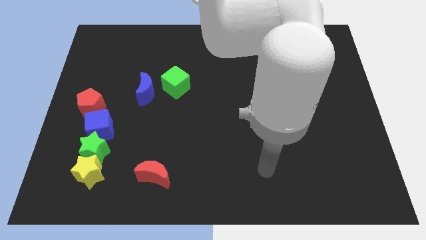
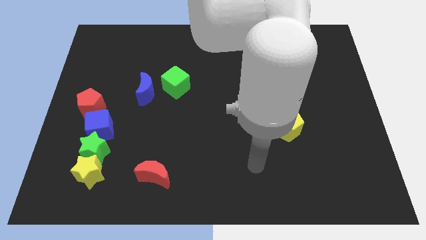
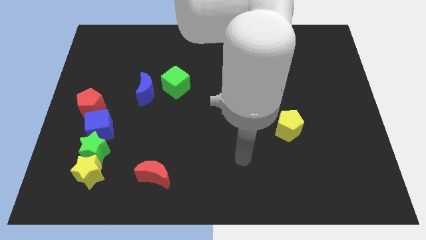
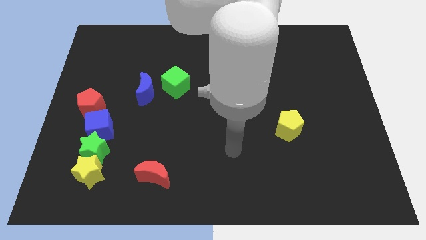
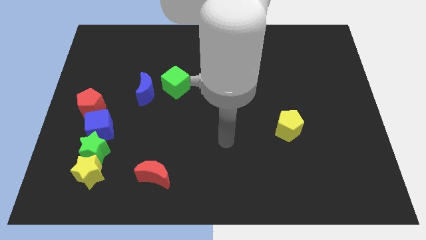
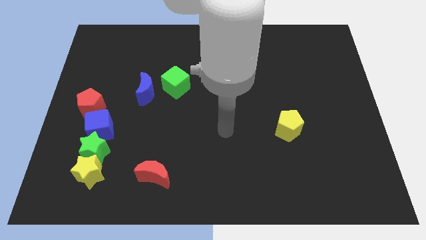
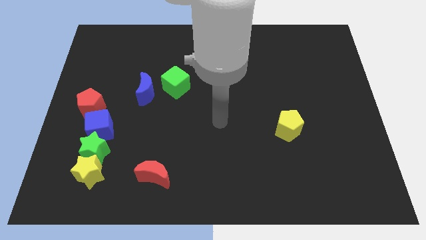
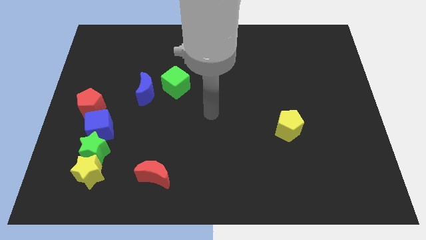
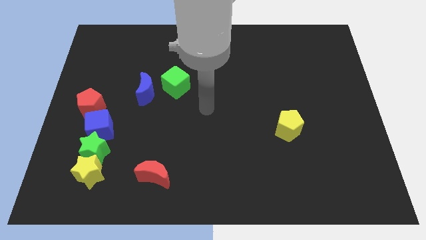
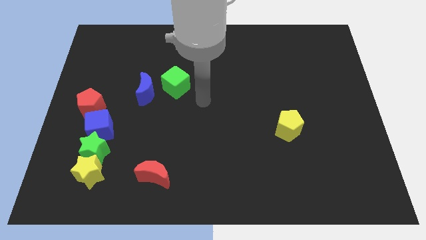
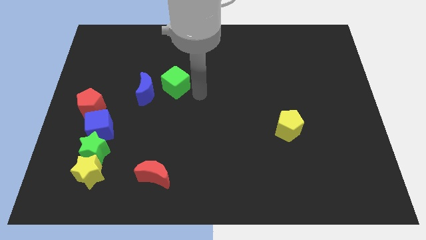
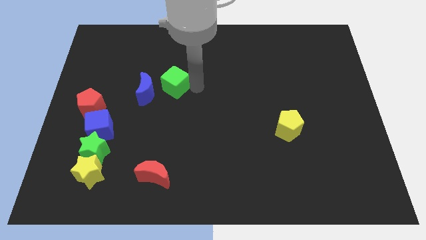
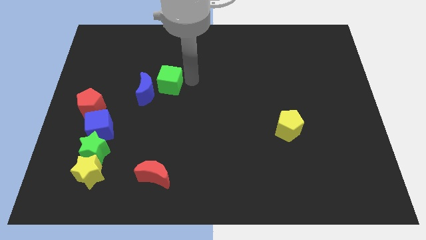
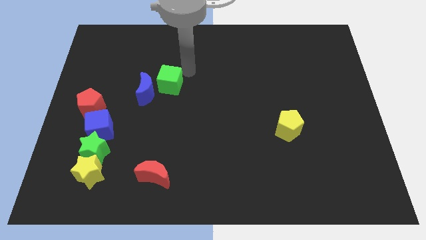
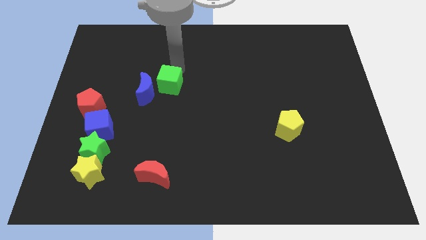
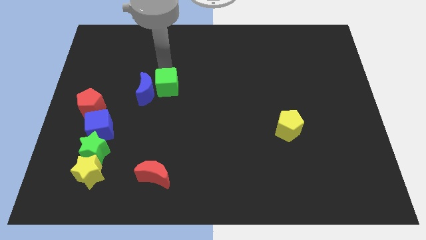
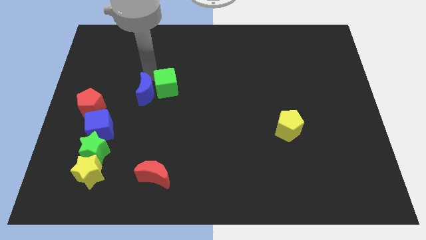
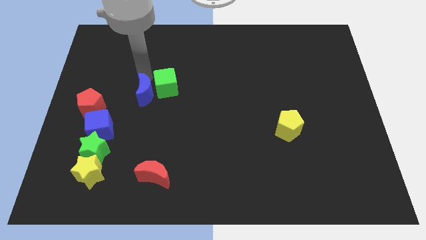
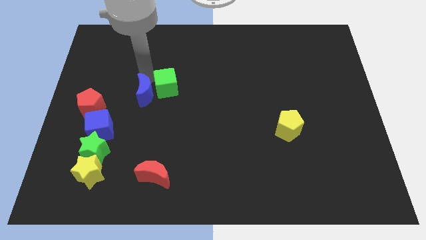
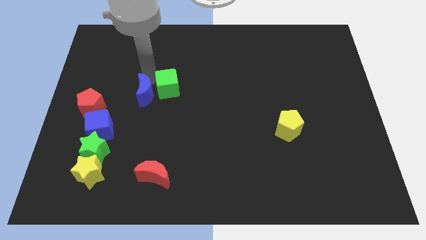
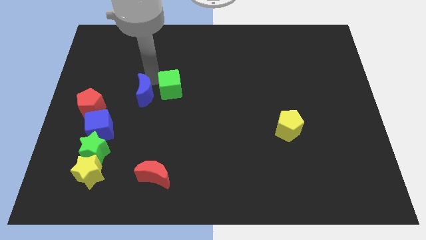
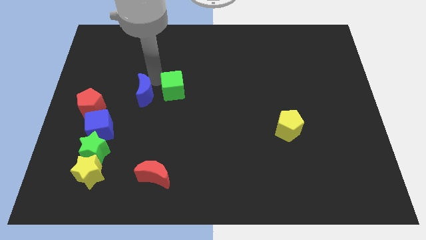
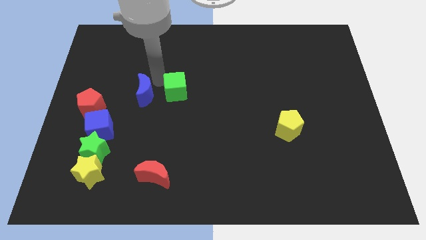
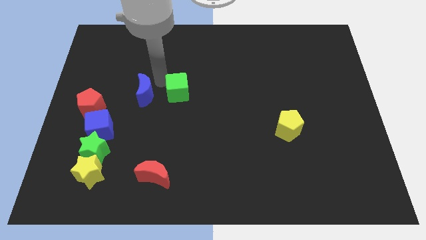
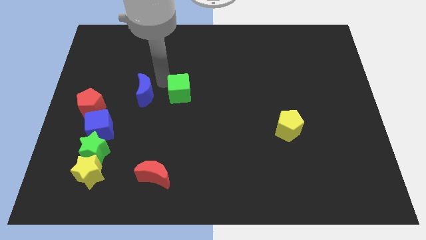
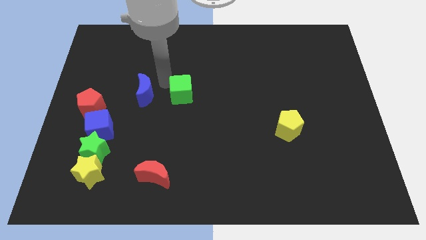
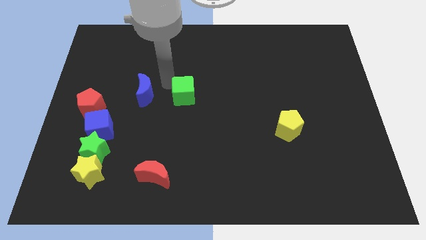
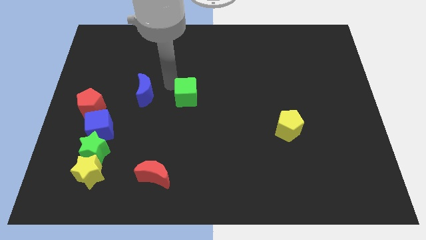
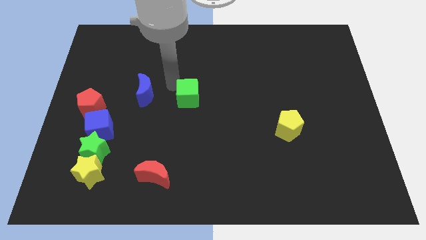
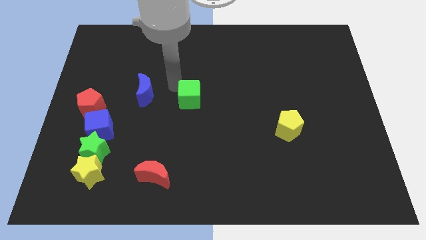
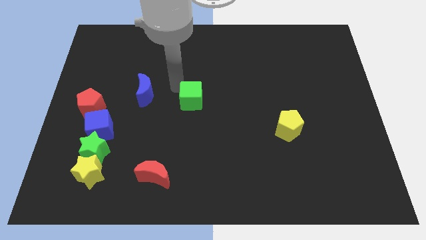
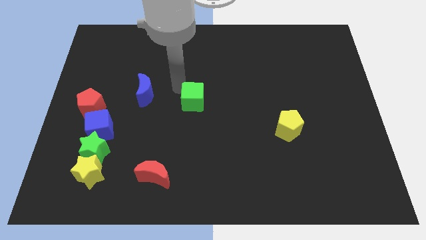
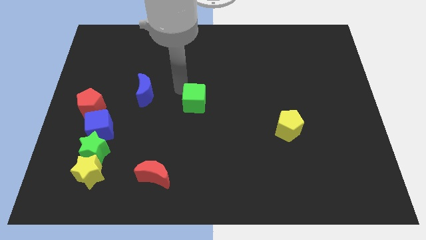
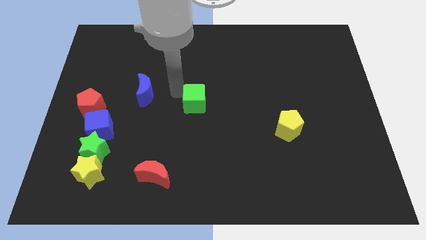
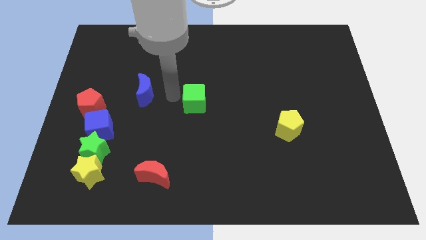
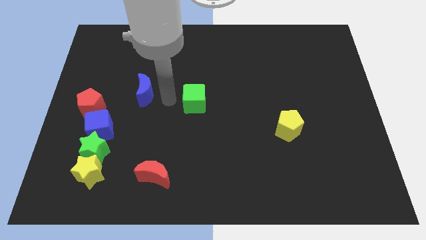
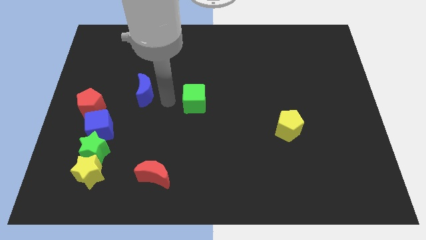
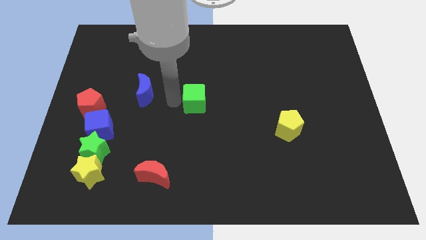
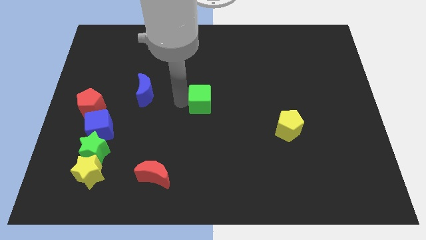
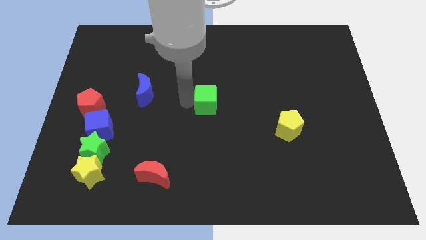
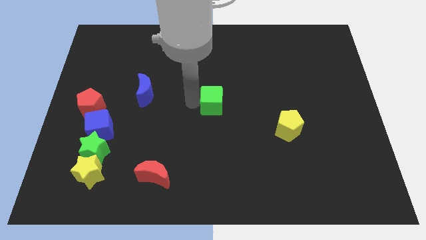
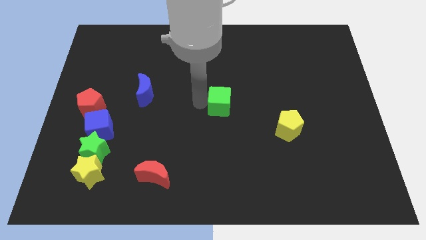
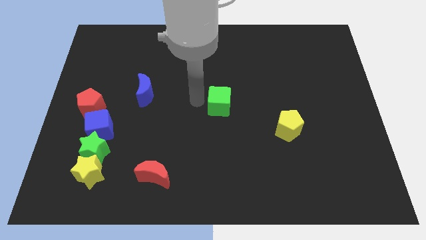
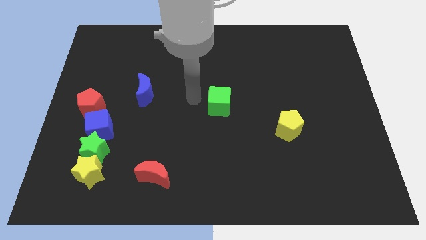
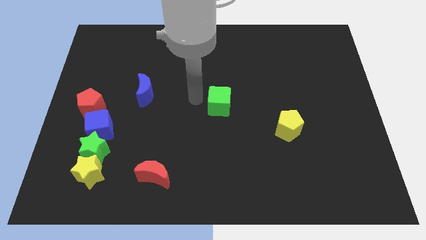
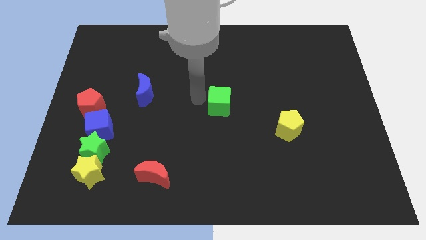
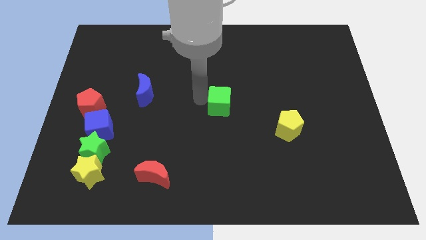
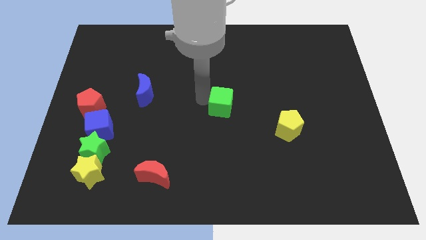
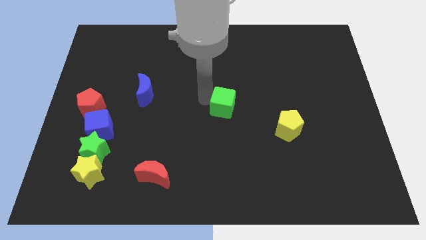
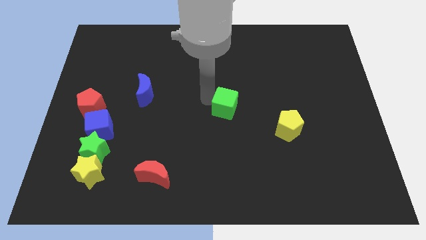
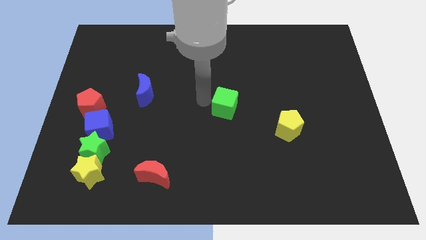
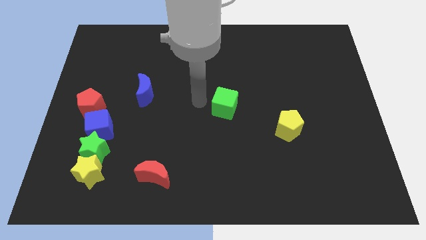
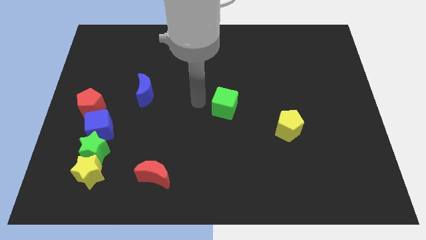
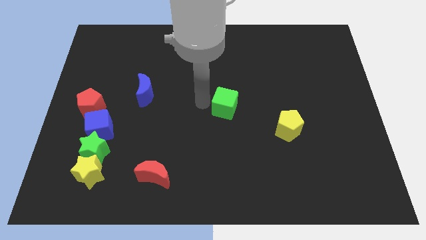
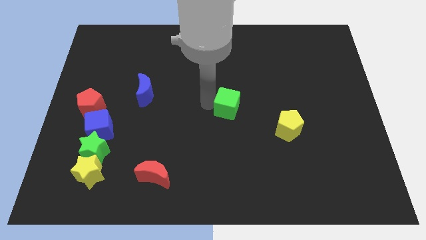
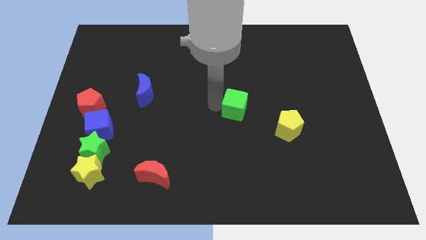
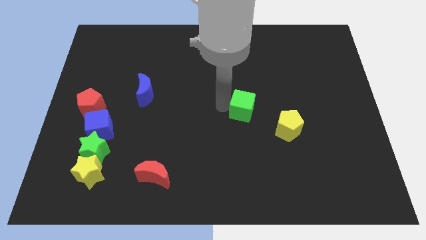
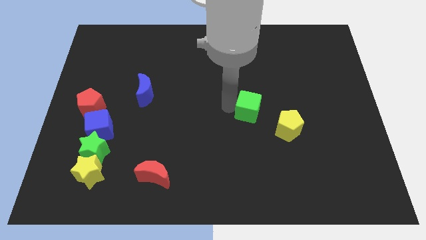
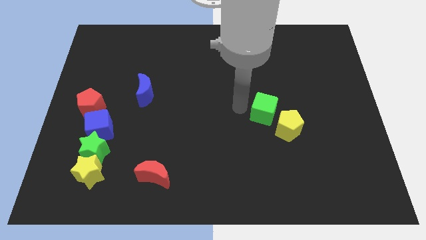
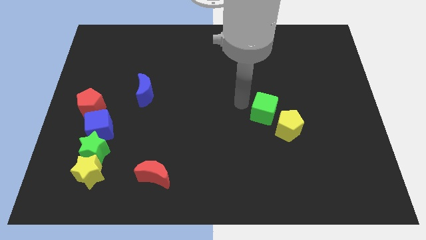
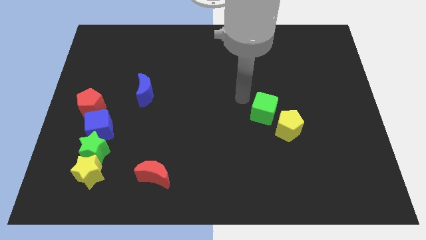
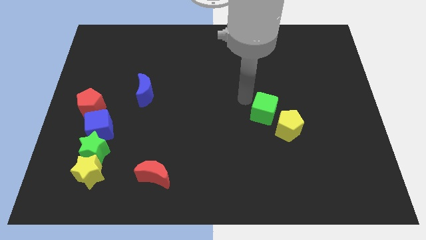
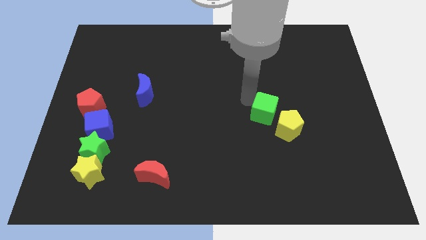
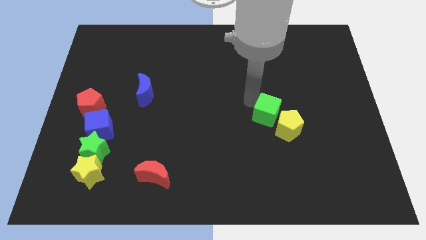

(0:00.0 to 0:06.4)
put the green cube close to the yellow pentagon
